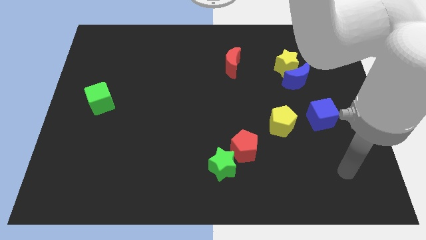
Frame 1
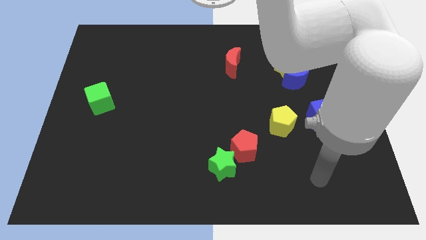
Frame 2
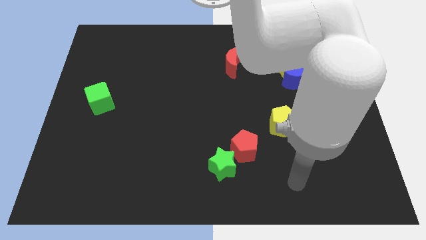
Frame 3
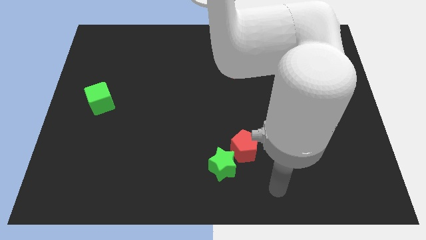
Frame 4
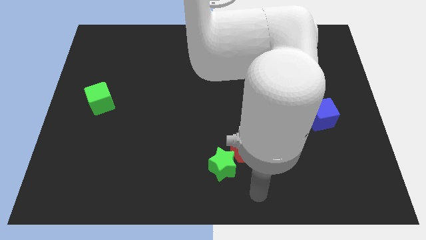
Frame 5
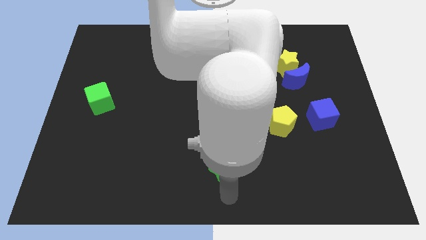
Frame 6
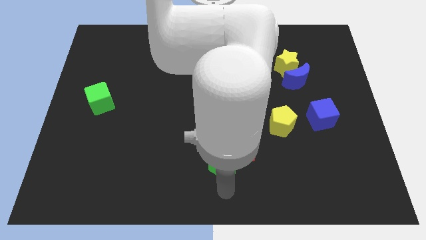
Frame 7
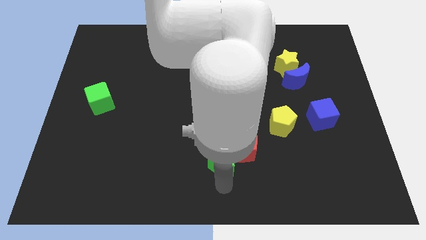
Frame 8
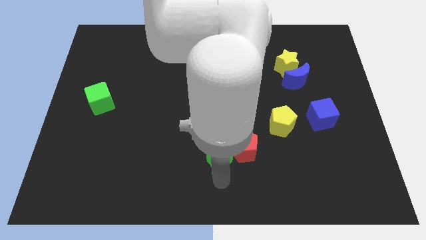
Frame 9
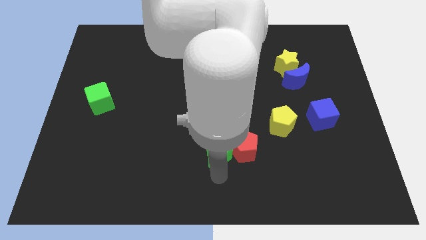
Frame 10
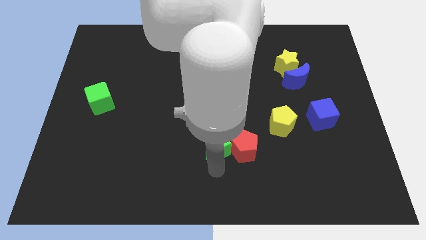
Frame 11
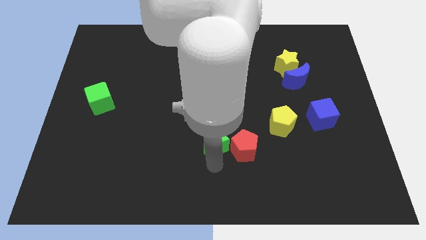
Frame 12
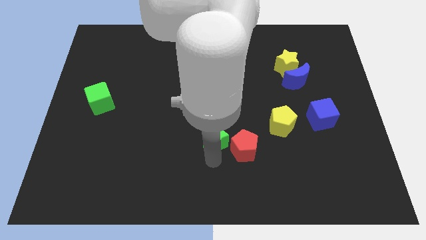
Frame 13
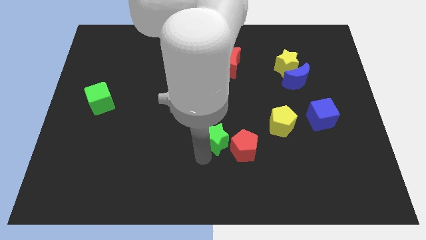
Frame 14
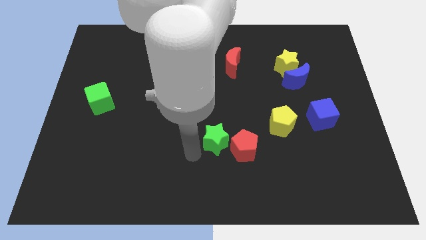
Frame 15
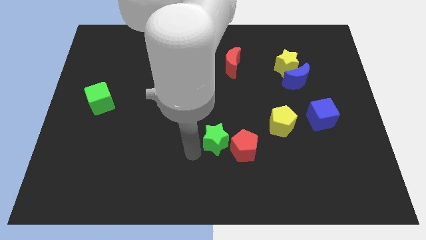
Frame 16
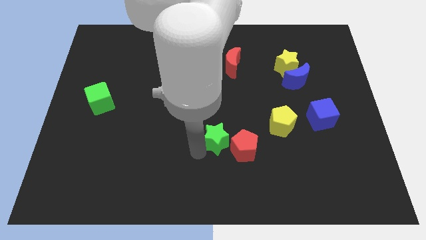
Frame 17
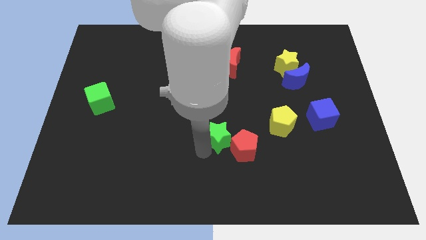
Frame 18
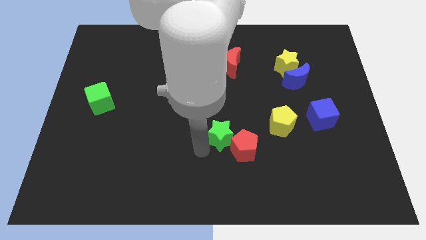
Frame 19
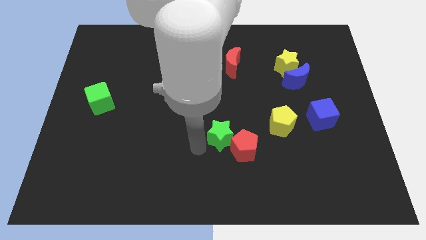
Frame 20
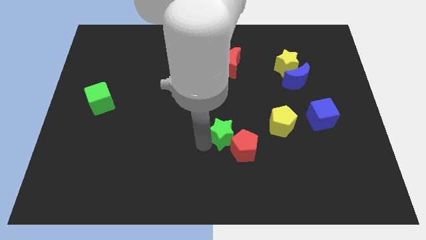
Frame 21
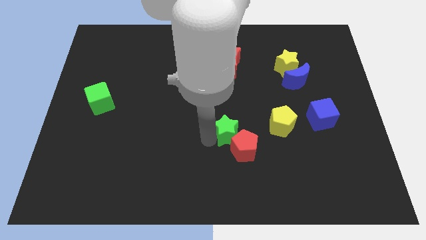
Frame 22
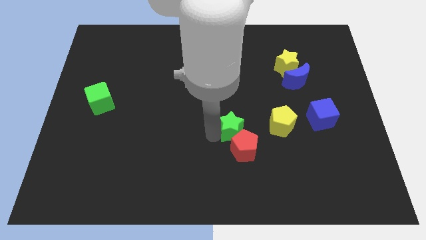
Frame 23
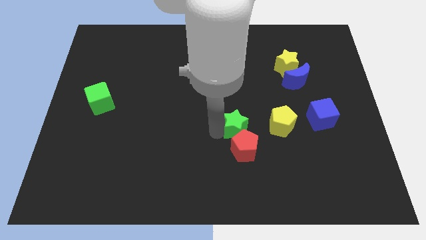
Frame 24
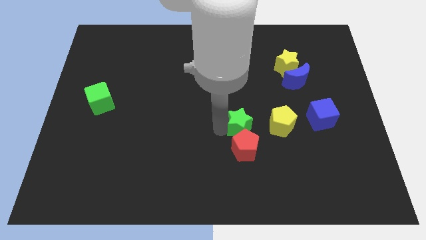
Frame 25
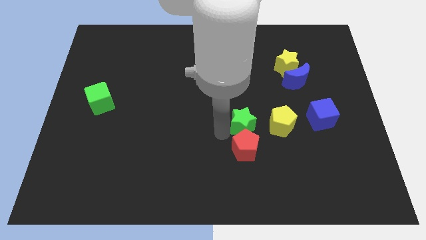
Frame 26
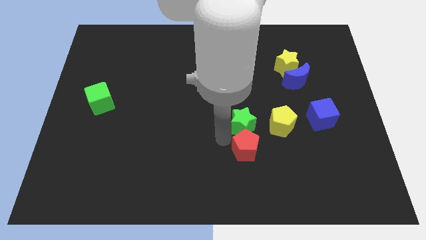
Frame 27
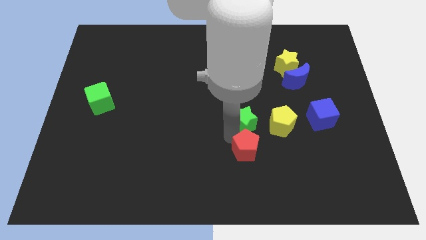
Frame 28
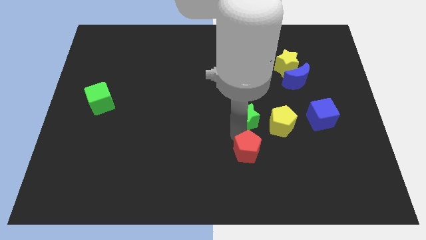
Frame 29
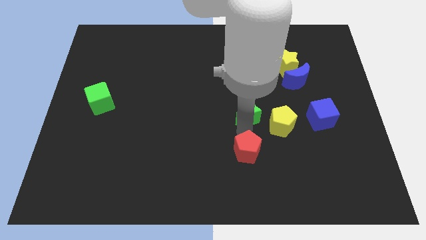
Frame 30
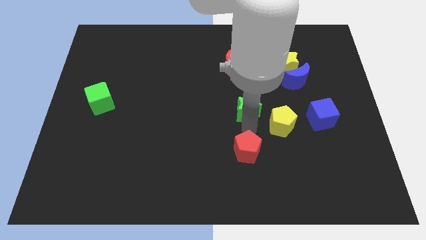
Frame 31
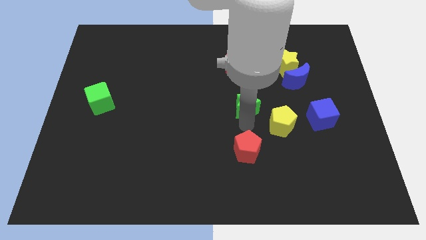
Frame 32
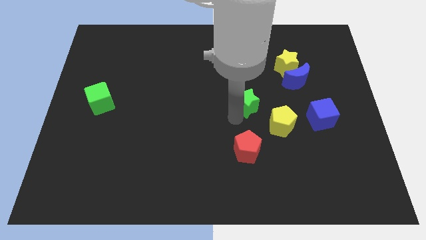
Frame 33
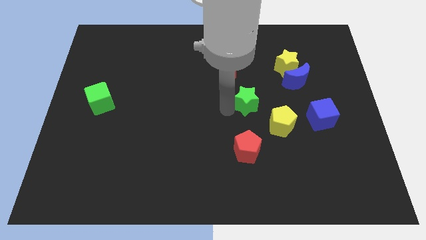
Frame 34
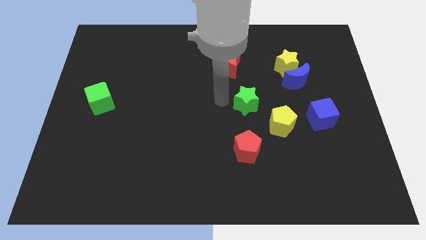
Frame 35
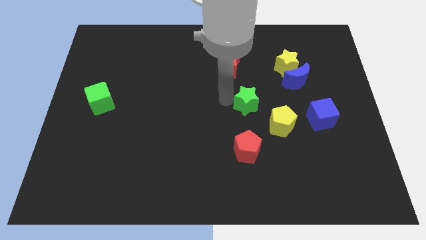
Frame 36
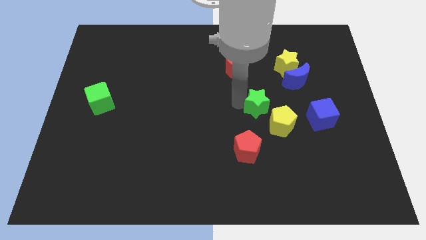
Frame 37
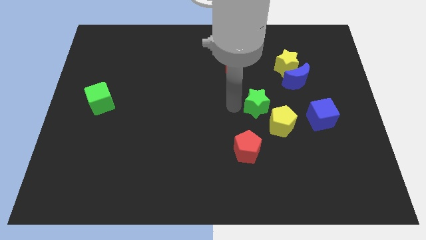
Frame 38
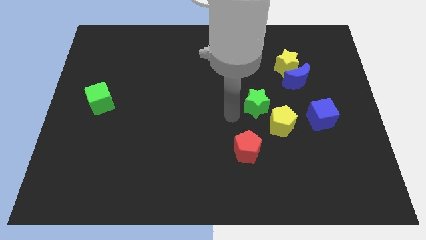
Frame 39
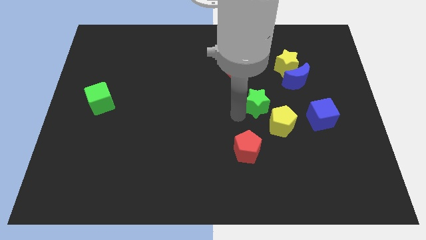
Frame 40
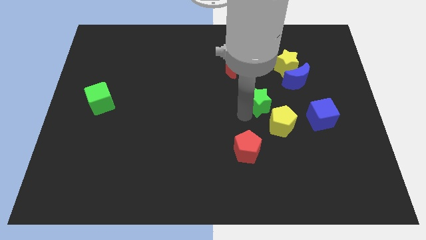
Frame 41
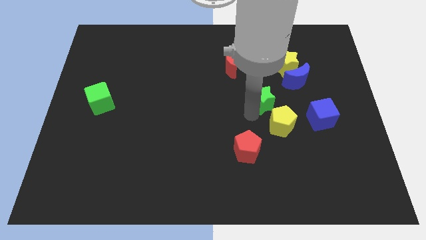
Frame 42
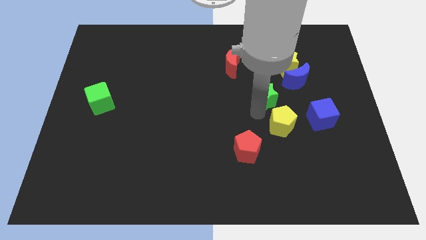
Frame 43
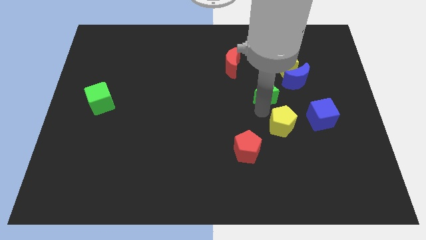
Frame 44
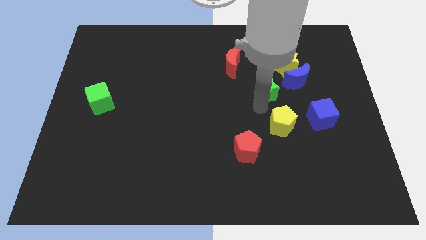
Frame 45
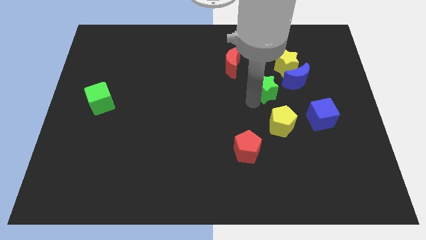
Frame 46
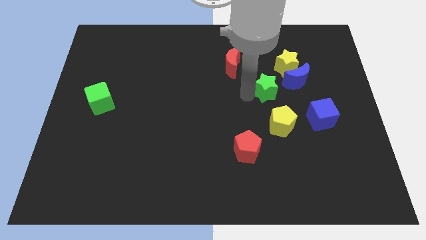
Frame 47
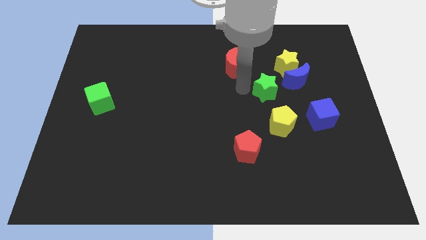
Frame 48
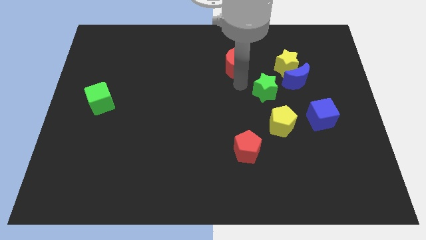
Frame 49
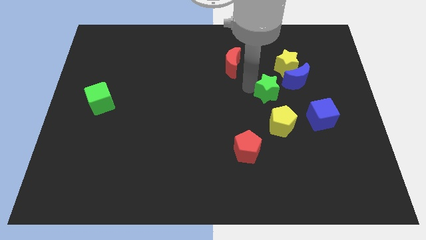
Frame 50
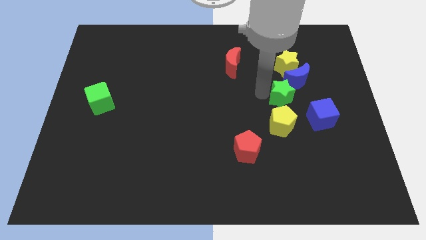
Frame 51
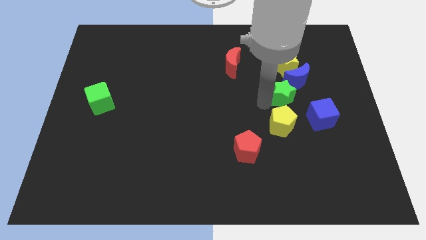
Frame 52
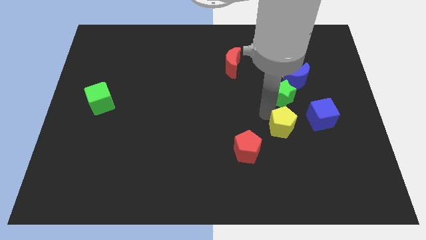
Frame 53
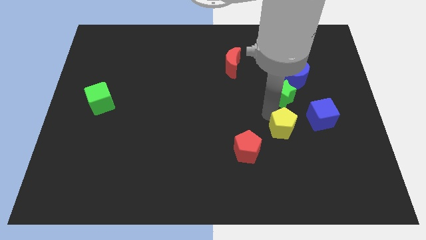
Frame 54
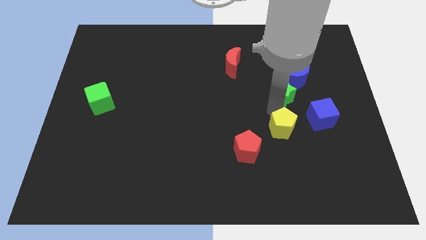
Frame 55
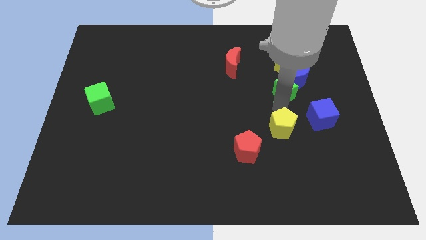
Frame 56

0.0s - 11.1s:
put the green star towards the blue moon

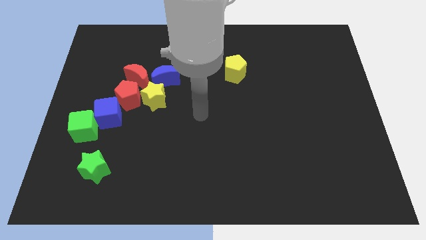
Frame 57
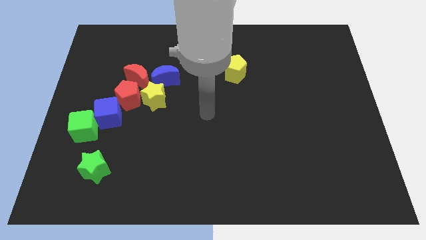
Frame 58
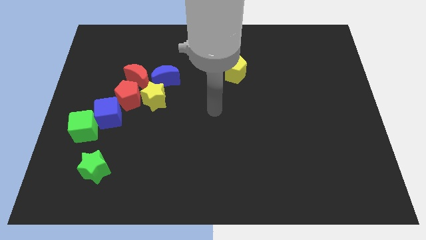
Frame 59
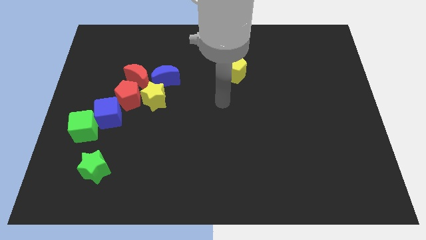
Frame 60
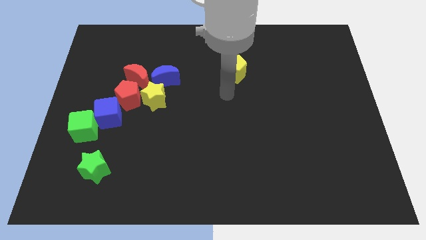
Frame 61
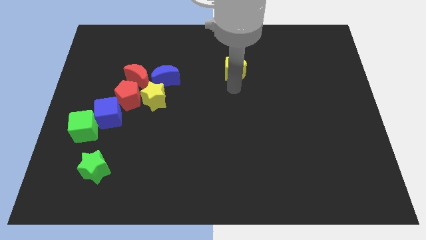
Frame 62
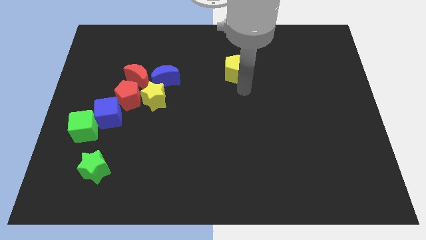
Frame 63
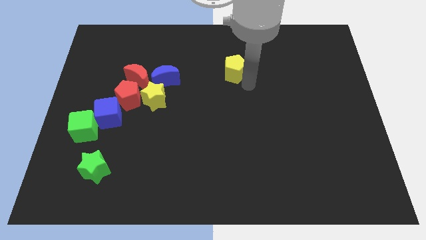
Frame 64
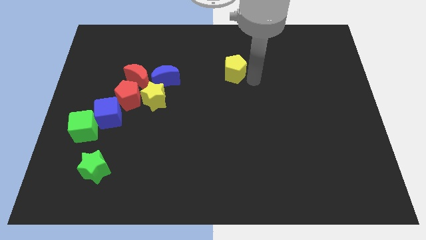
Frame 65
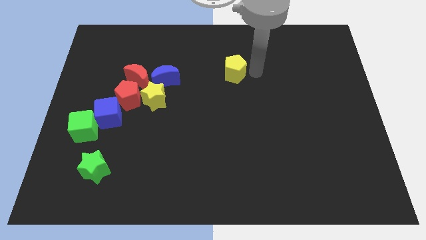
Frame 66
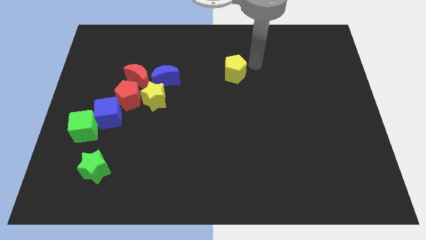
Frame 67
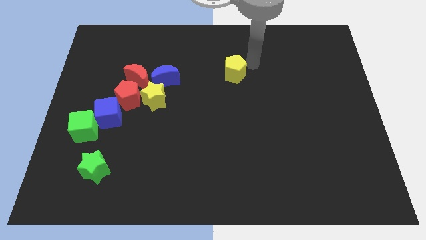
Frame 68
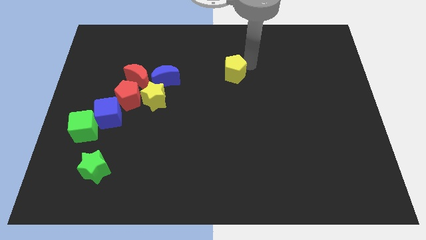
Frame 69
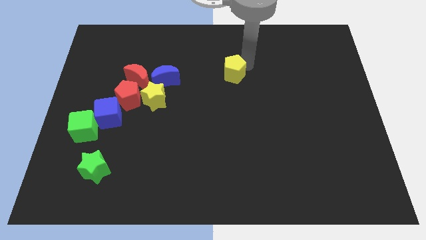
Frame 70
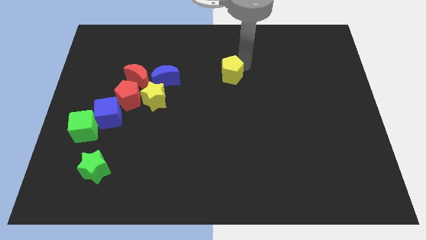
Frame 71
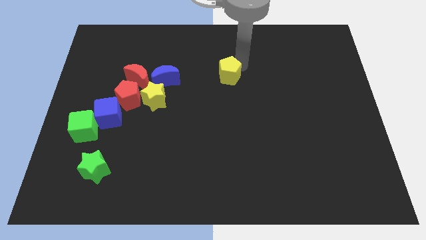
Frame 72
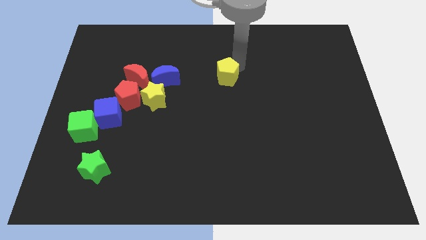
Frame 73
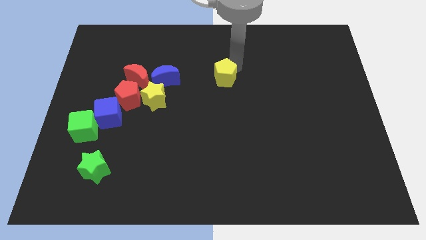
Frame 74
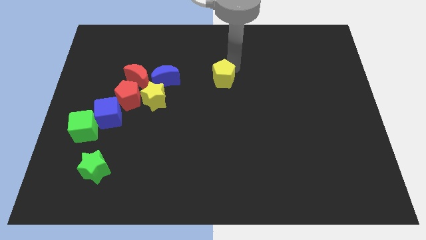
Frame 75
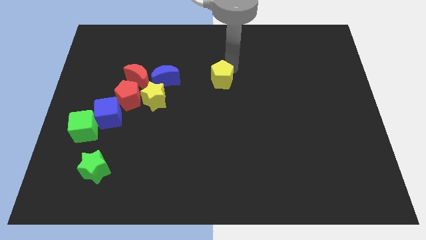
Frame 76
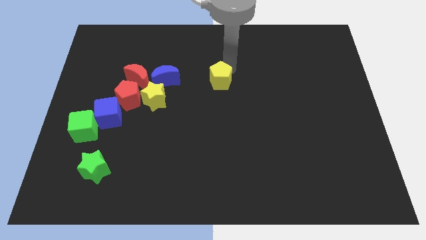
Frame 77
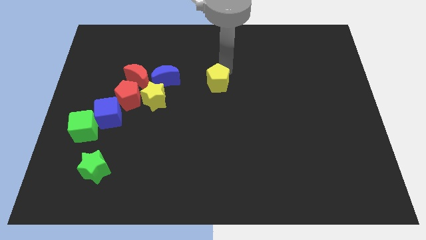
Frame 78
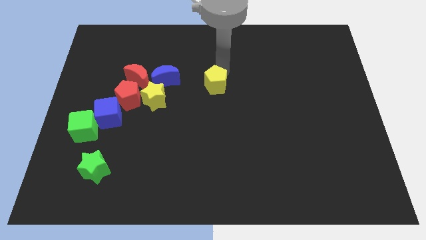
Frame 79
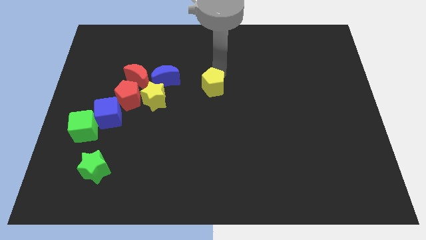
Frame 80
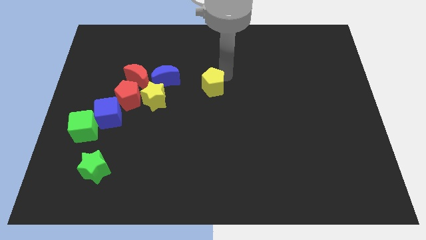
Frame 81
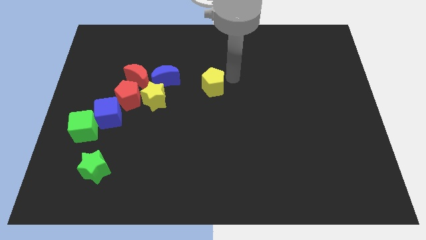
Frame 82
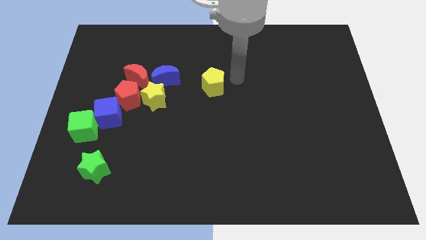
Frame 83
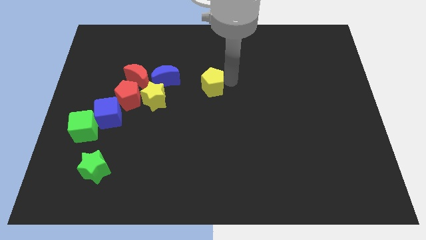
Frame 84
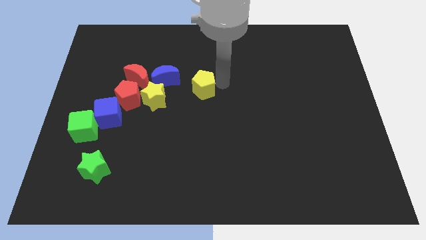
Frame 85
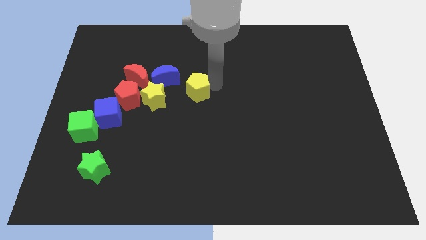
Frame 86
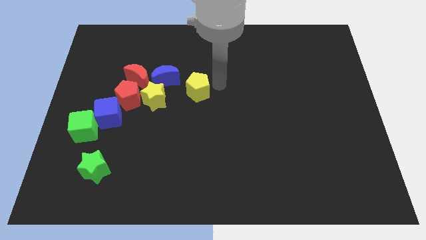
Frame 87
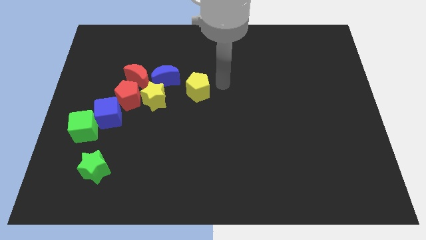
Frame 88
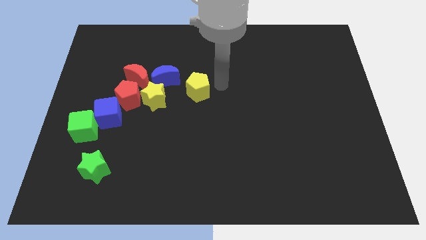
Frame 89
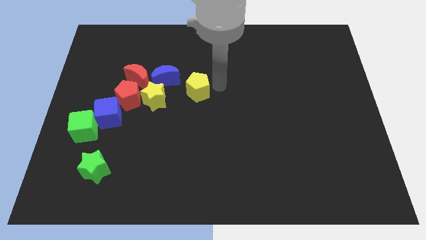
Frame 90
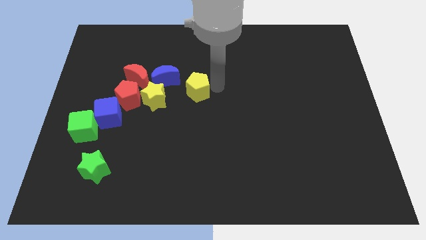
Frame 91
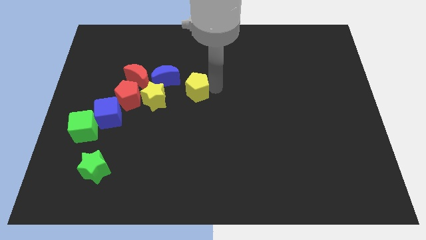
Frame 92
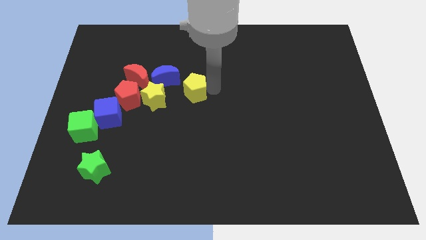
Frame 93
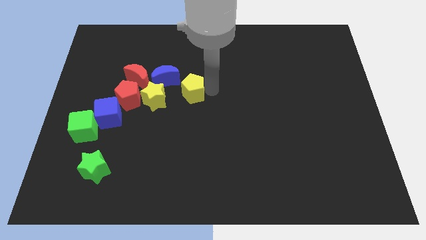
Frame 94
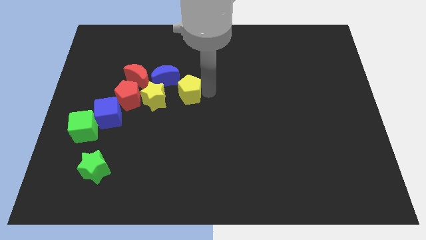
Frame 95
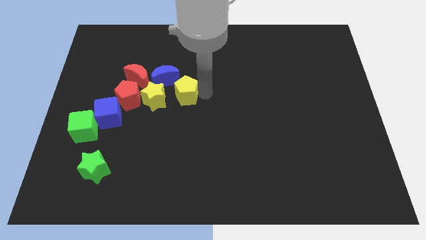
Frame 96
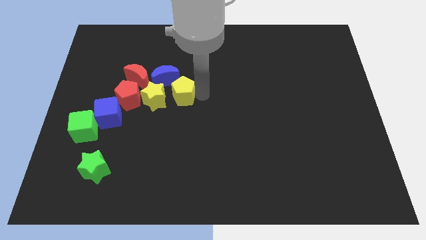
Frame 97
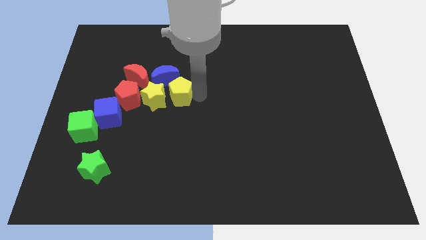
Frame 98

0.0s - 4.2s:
put the yellow pentagon close to the yellow star
